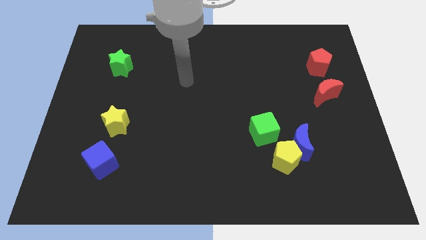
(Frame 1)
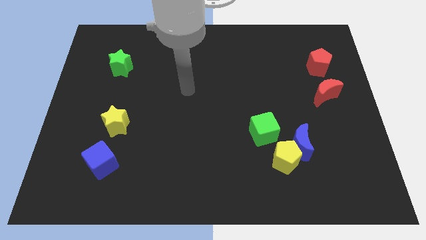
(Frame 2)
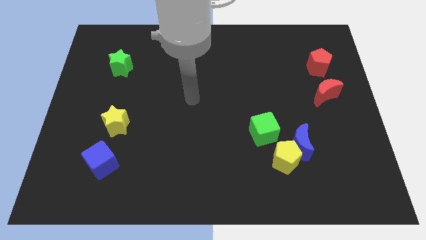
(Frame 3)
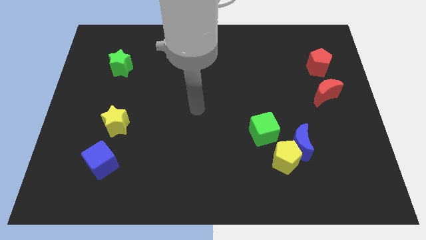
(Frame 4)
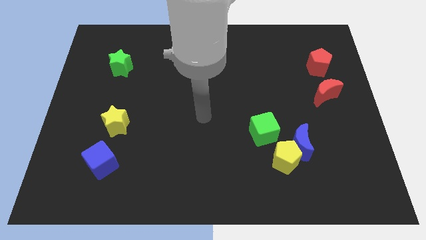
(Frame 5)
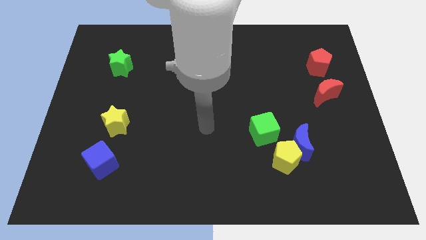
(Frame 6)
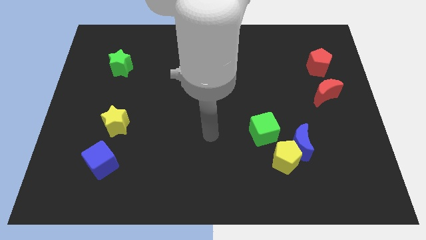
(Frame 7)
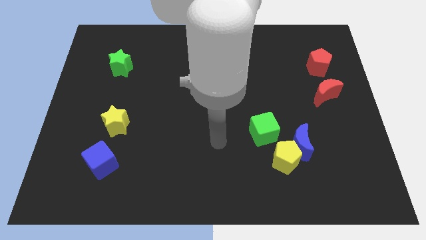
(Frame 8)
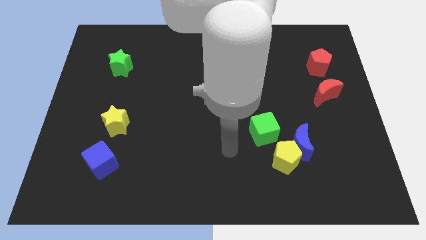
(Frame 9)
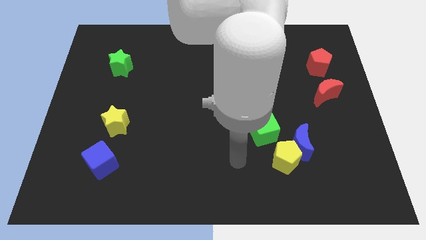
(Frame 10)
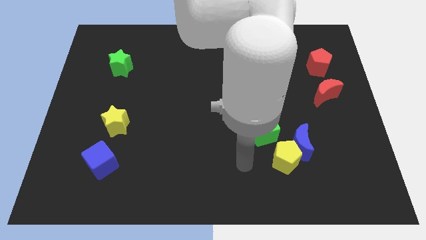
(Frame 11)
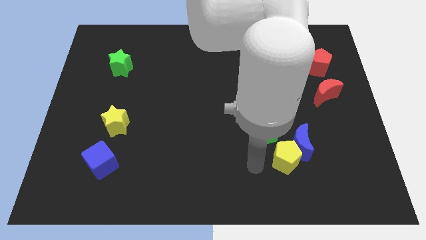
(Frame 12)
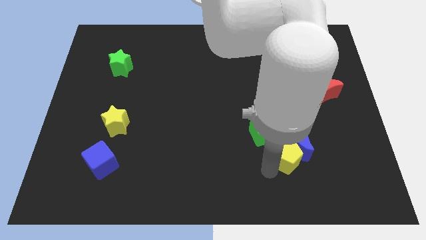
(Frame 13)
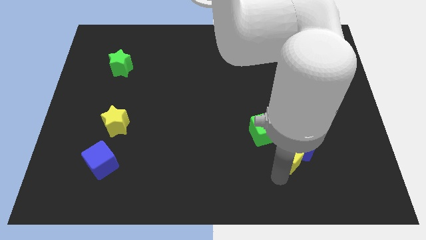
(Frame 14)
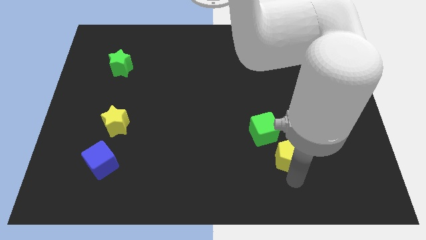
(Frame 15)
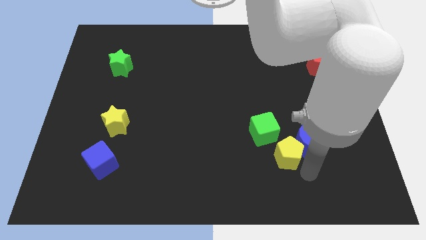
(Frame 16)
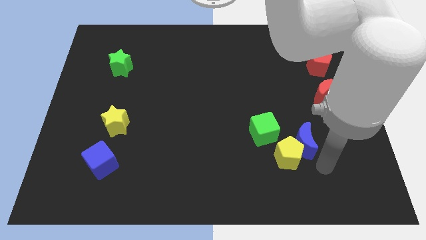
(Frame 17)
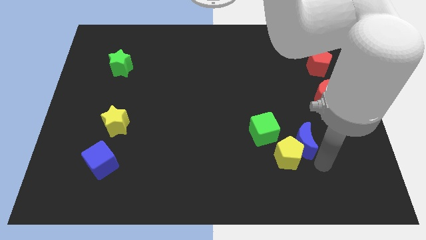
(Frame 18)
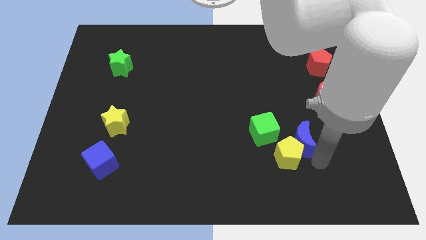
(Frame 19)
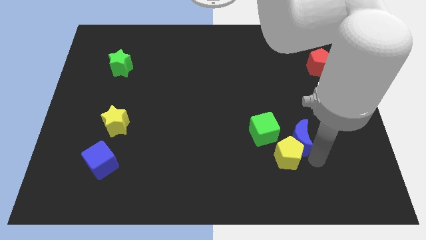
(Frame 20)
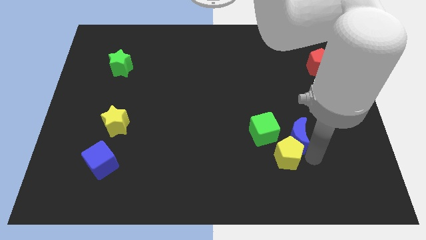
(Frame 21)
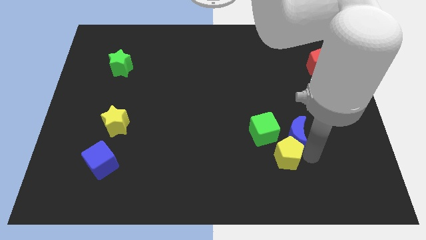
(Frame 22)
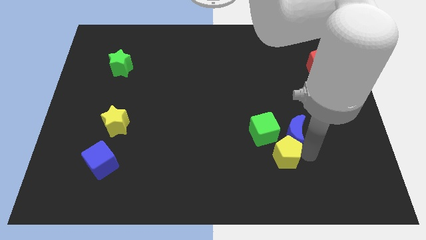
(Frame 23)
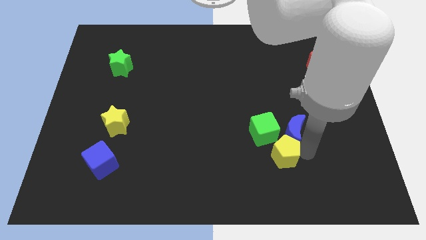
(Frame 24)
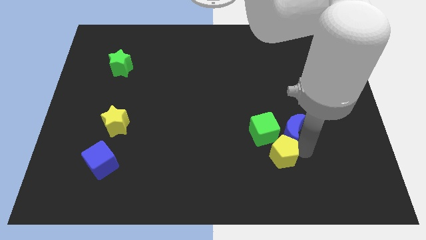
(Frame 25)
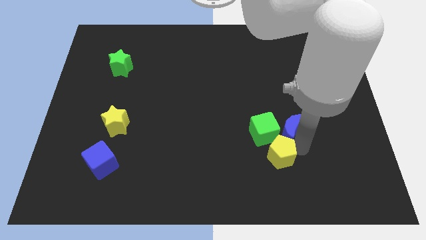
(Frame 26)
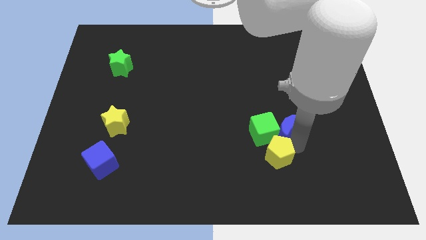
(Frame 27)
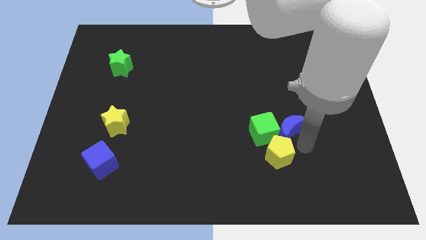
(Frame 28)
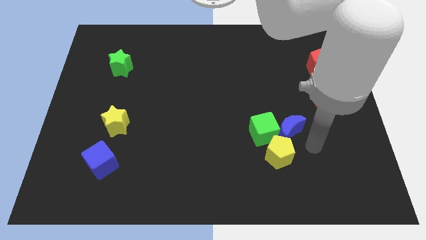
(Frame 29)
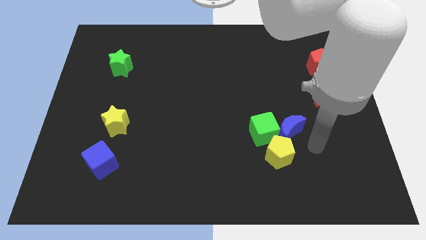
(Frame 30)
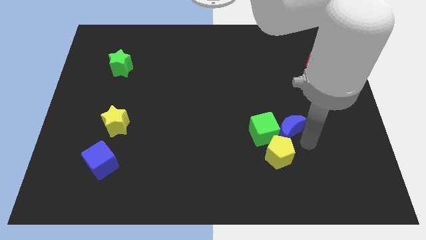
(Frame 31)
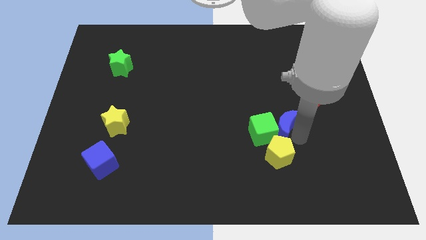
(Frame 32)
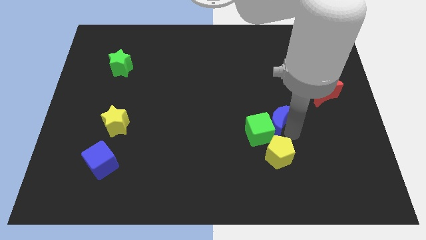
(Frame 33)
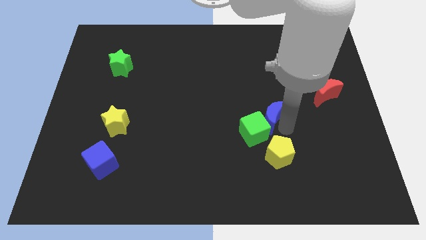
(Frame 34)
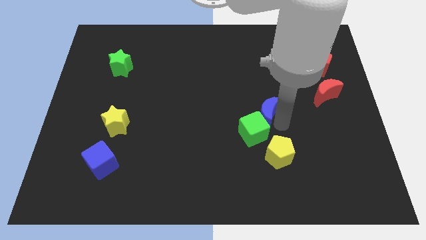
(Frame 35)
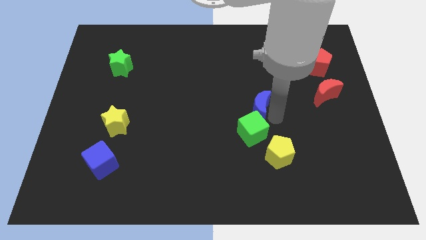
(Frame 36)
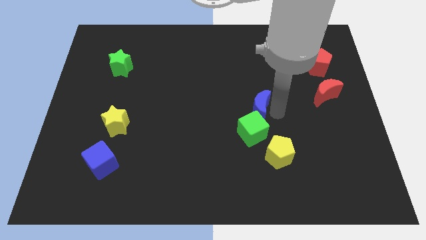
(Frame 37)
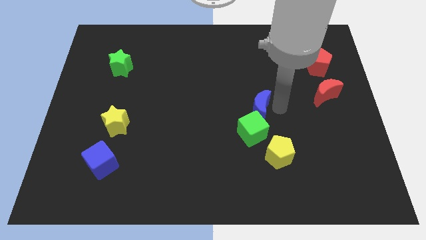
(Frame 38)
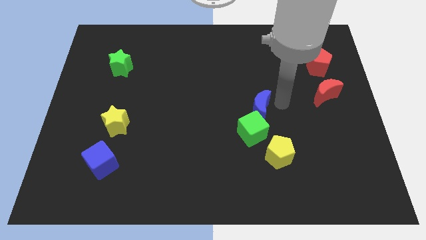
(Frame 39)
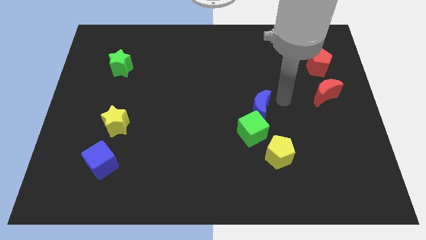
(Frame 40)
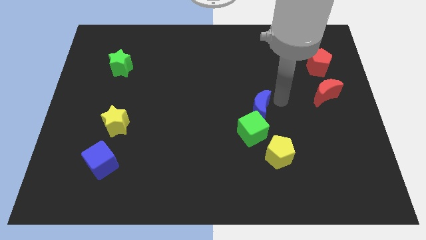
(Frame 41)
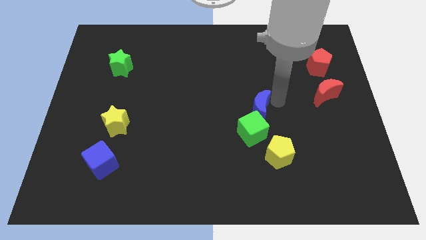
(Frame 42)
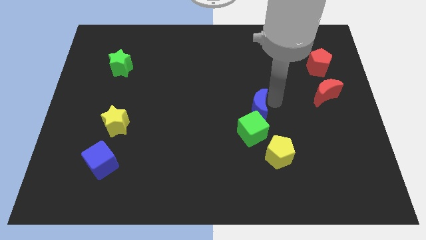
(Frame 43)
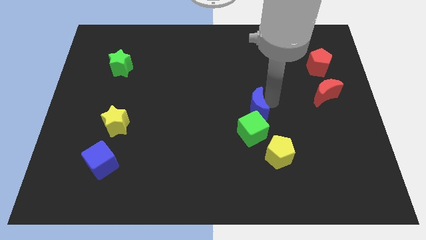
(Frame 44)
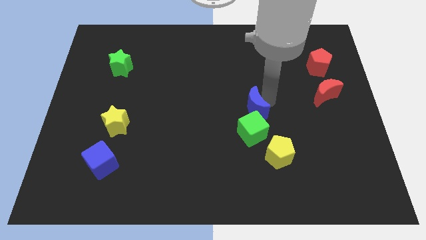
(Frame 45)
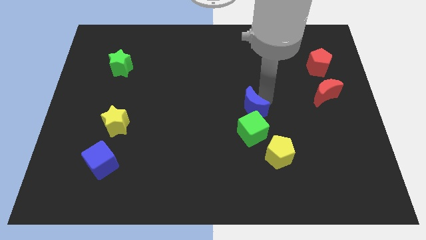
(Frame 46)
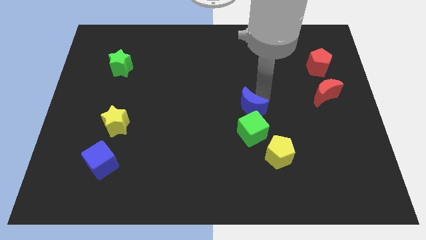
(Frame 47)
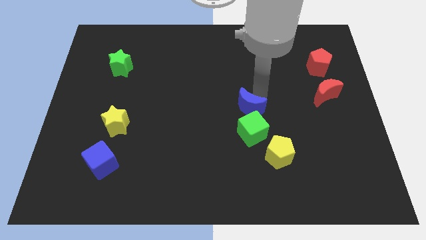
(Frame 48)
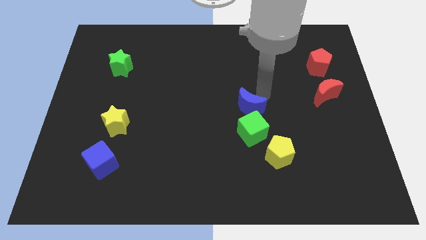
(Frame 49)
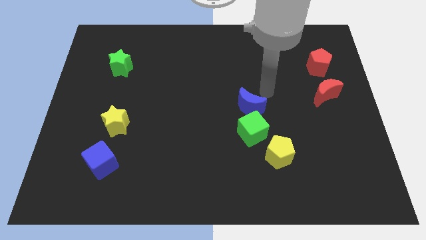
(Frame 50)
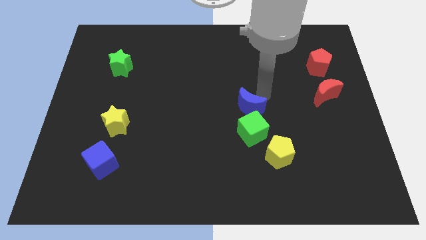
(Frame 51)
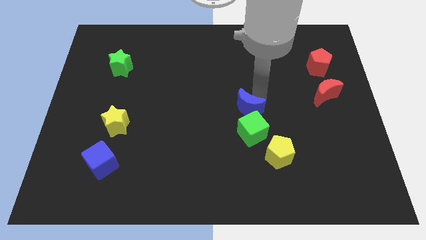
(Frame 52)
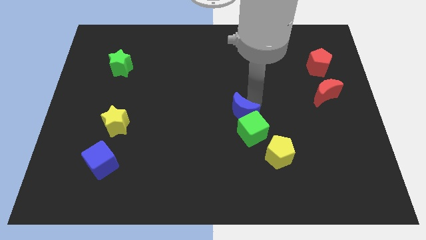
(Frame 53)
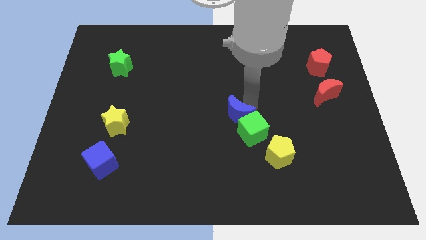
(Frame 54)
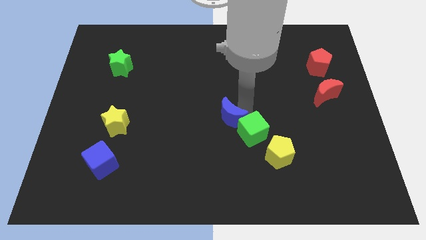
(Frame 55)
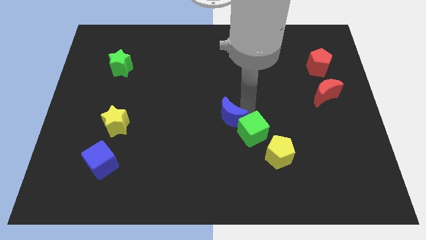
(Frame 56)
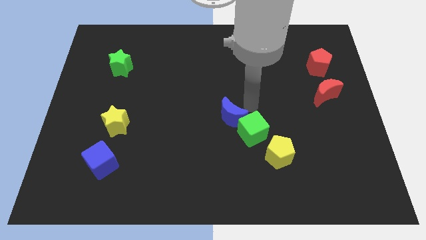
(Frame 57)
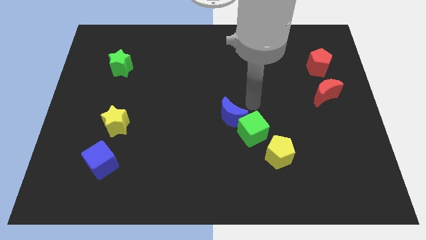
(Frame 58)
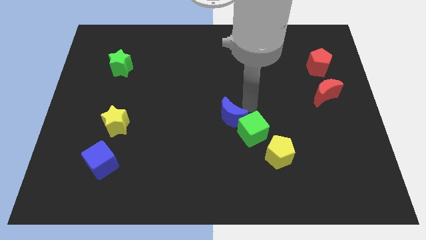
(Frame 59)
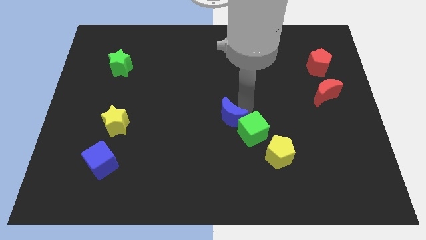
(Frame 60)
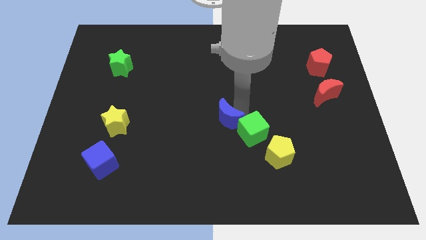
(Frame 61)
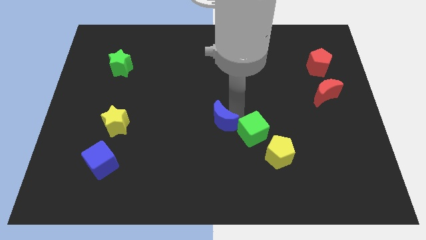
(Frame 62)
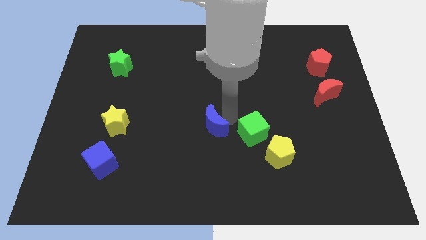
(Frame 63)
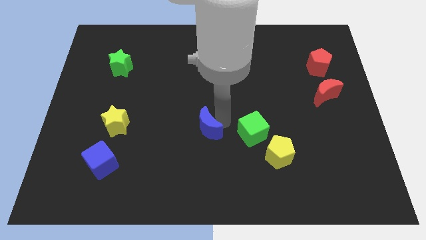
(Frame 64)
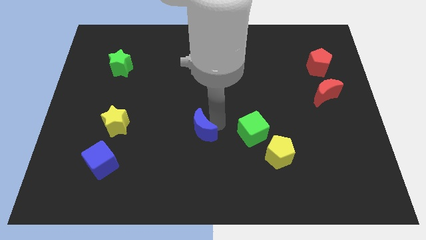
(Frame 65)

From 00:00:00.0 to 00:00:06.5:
slide the blue moon left

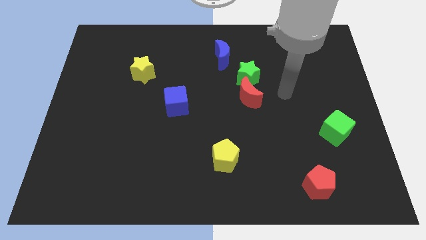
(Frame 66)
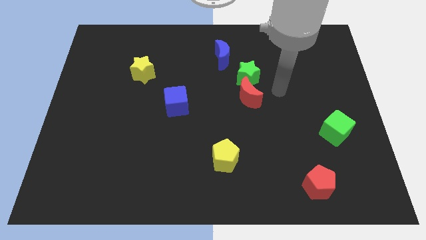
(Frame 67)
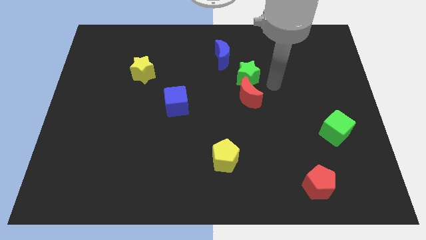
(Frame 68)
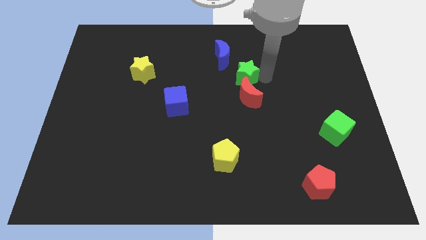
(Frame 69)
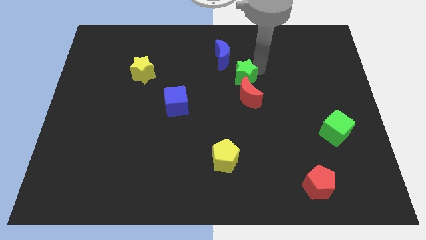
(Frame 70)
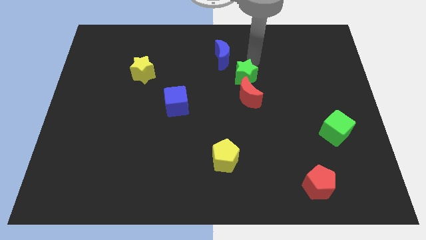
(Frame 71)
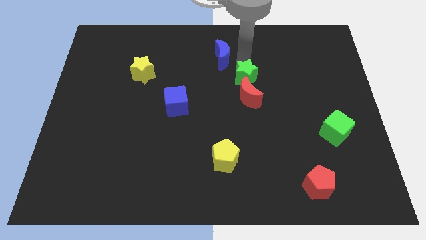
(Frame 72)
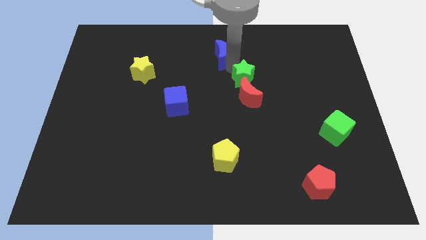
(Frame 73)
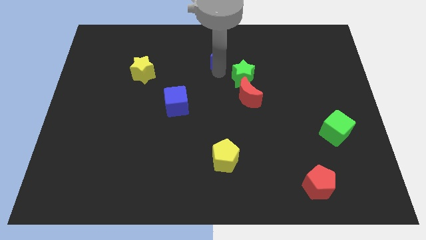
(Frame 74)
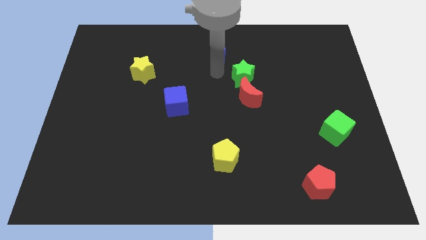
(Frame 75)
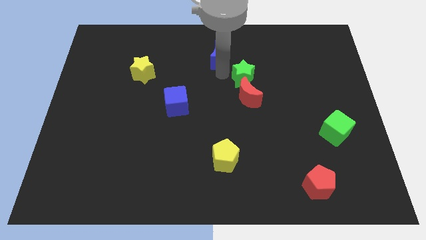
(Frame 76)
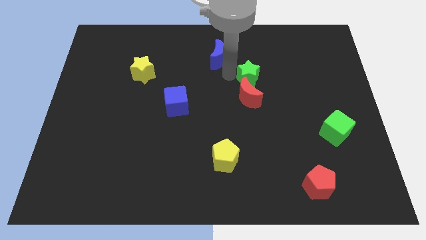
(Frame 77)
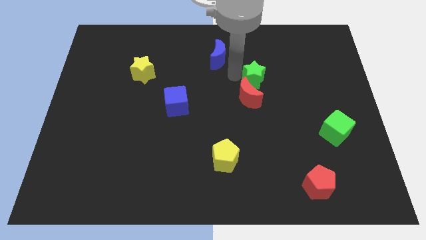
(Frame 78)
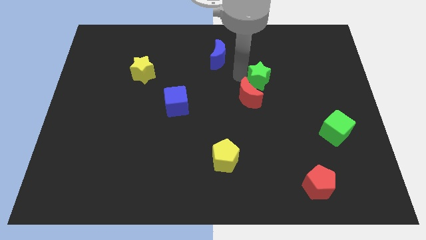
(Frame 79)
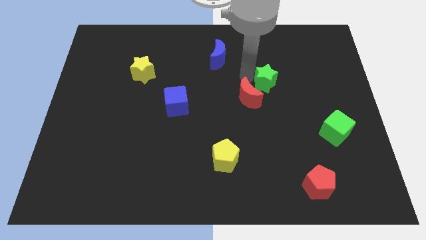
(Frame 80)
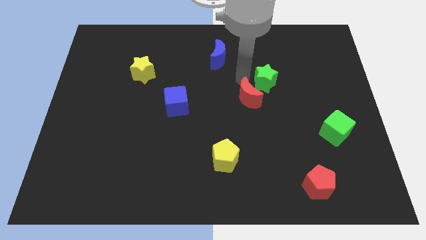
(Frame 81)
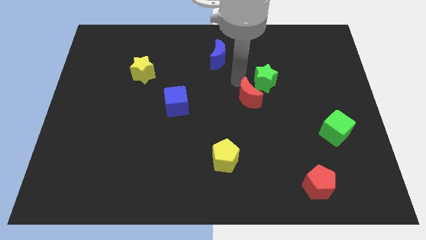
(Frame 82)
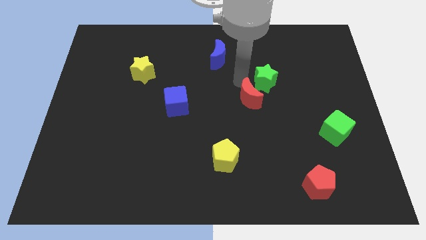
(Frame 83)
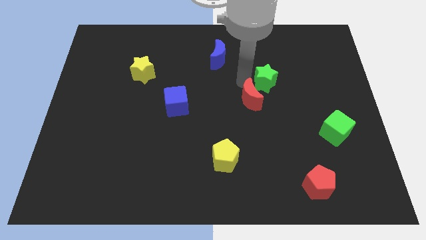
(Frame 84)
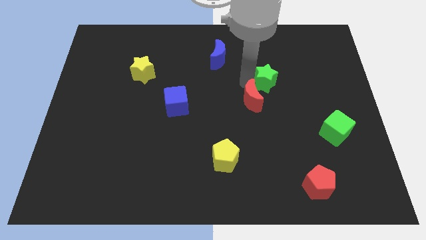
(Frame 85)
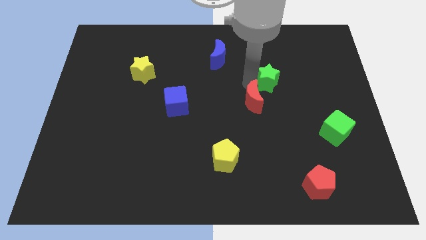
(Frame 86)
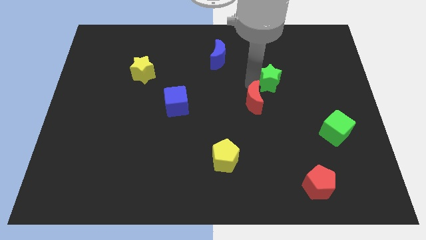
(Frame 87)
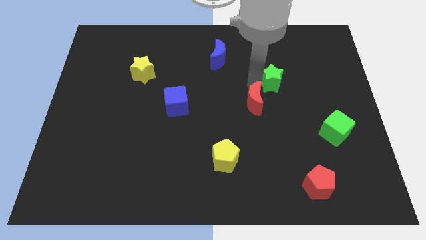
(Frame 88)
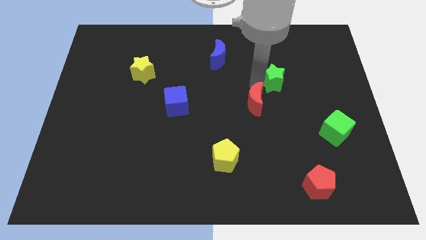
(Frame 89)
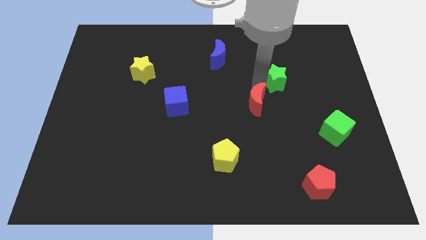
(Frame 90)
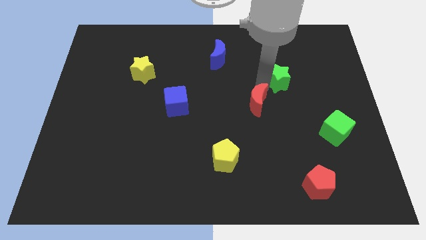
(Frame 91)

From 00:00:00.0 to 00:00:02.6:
push the green star a bit to the right
